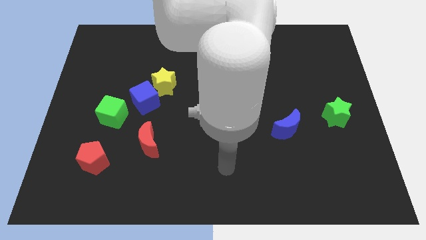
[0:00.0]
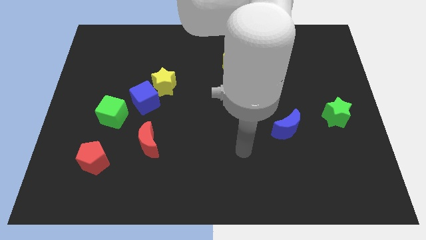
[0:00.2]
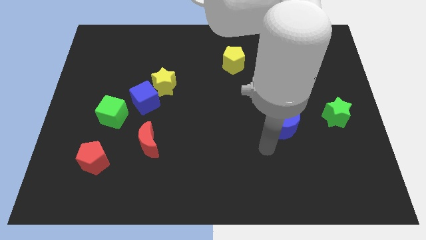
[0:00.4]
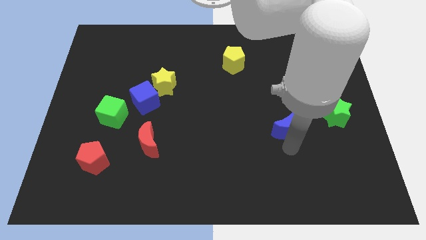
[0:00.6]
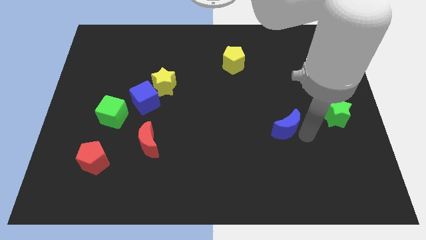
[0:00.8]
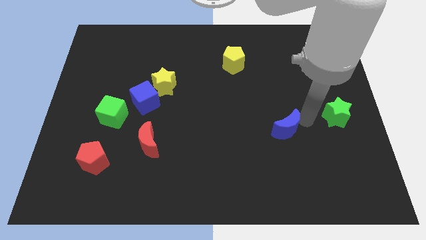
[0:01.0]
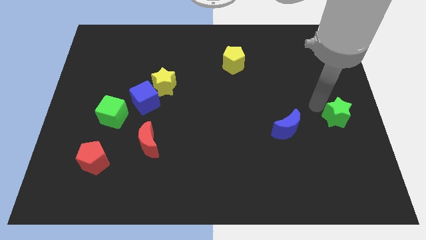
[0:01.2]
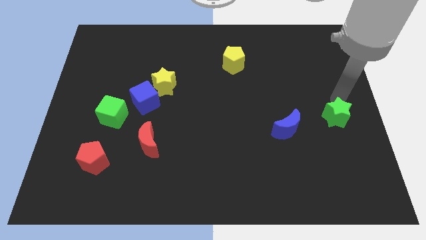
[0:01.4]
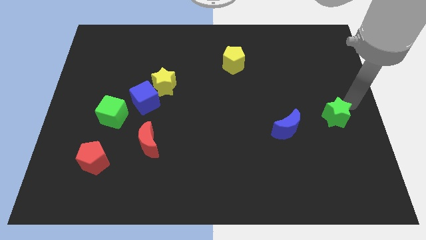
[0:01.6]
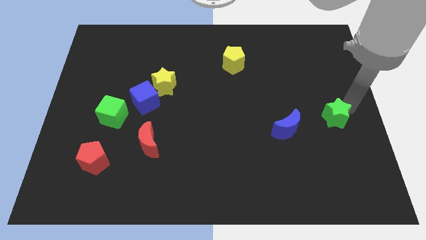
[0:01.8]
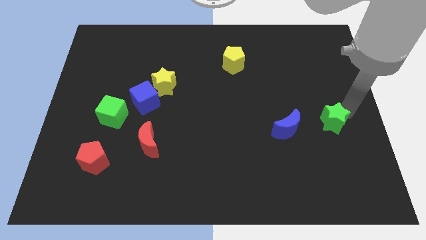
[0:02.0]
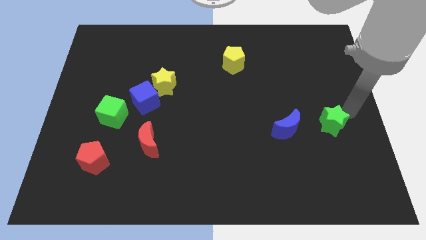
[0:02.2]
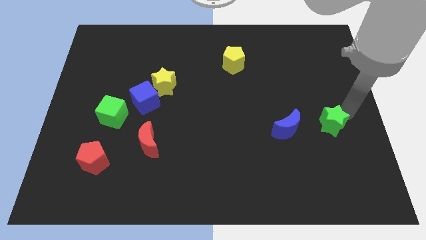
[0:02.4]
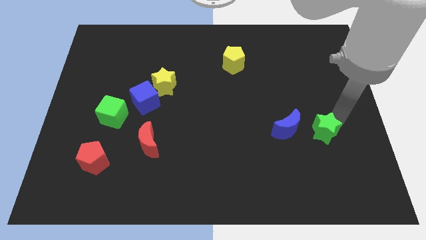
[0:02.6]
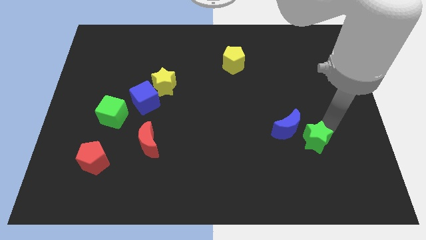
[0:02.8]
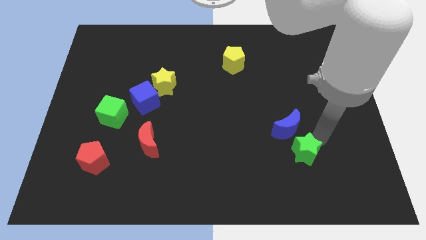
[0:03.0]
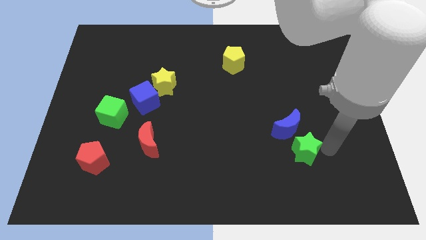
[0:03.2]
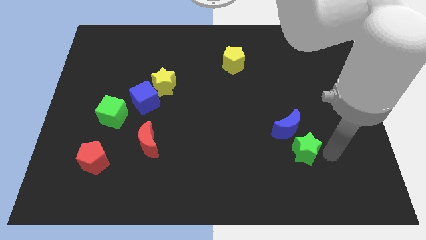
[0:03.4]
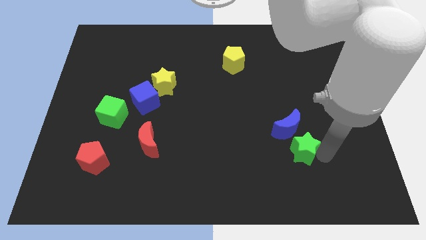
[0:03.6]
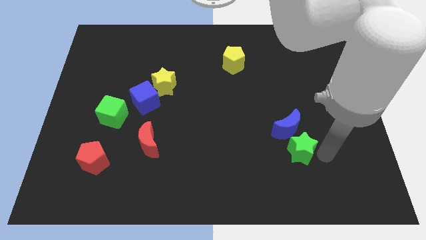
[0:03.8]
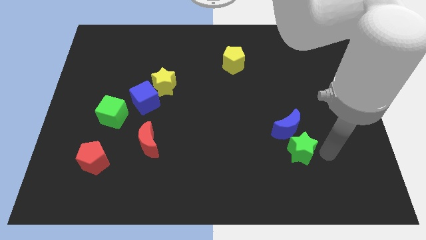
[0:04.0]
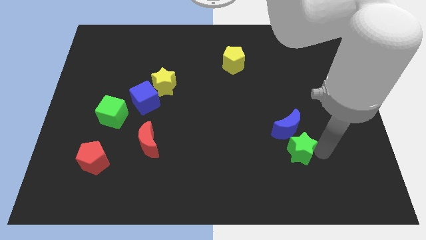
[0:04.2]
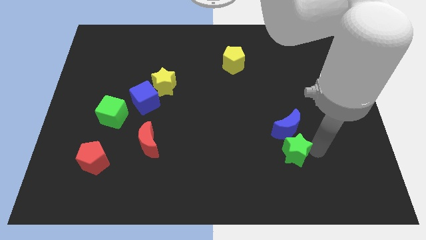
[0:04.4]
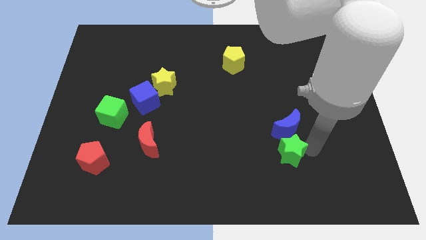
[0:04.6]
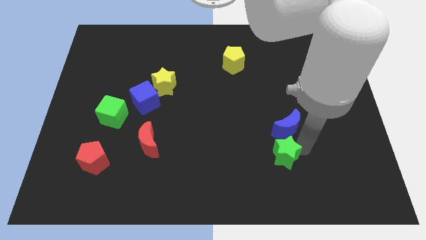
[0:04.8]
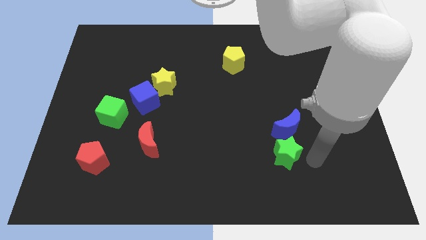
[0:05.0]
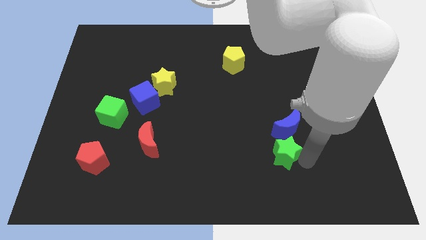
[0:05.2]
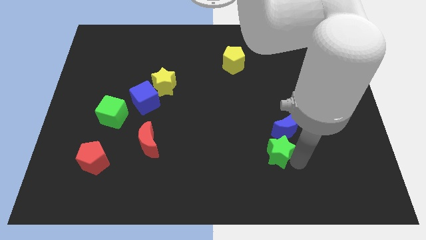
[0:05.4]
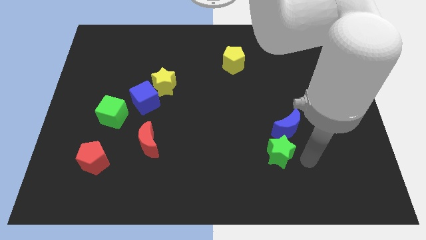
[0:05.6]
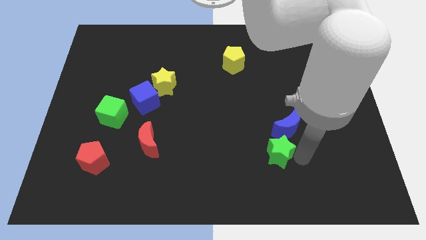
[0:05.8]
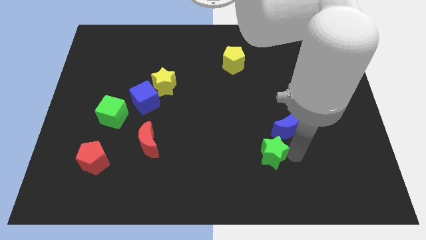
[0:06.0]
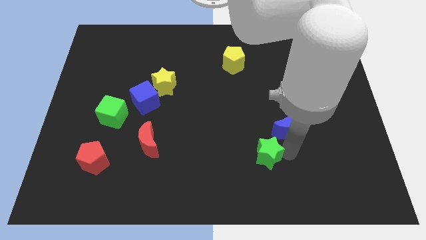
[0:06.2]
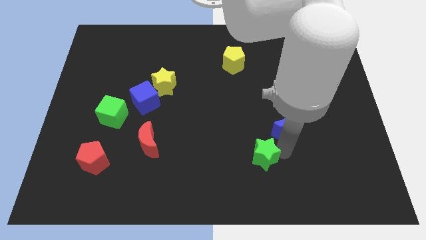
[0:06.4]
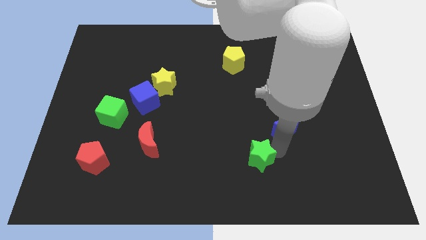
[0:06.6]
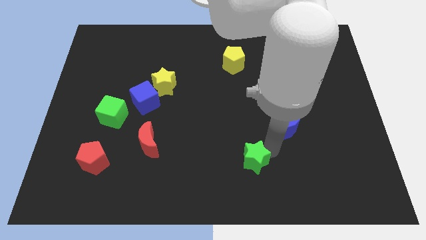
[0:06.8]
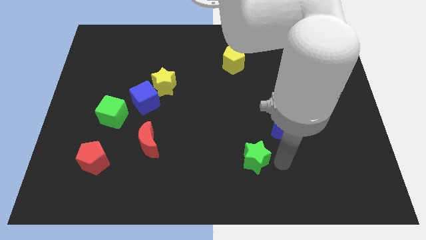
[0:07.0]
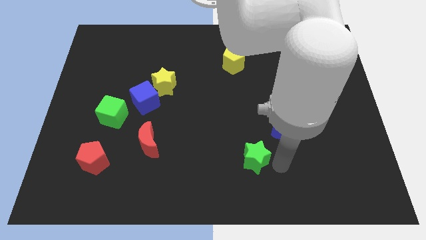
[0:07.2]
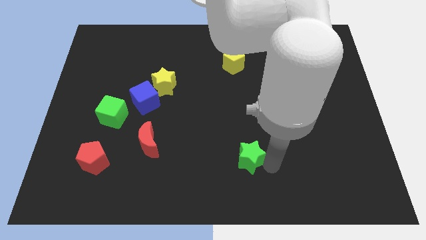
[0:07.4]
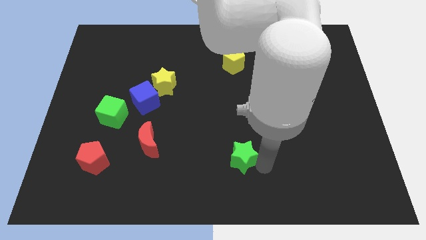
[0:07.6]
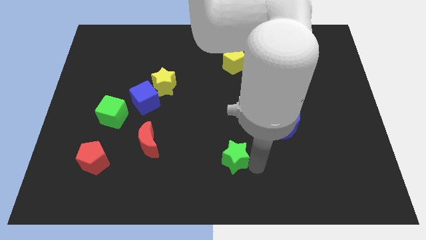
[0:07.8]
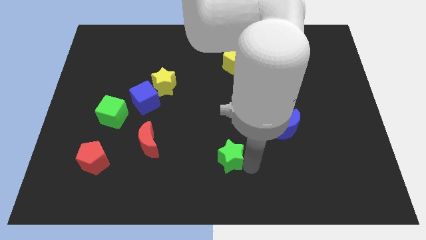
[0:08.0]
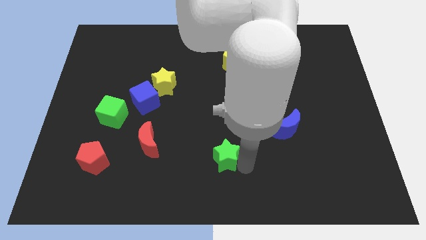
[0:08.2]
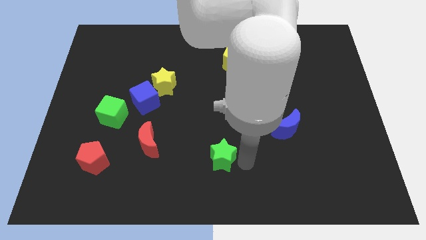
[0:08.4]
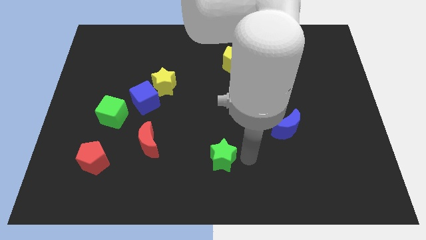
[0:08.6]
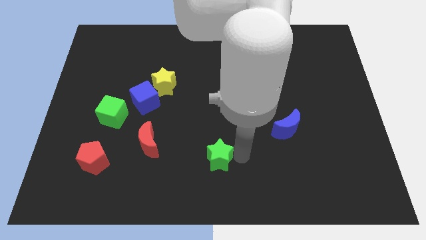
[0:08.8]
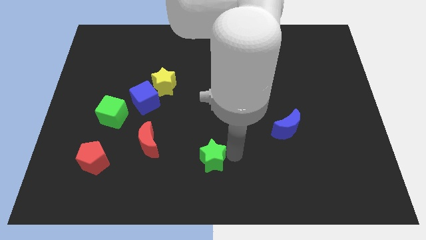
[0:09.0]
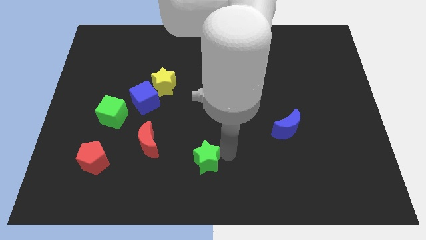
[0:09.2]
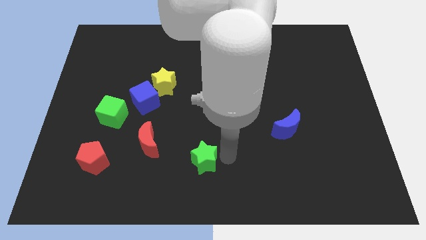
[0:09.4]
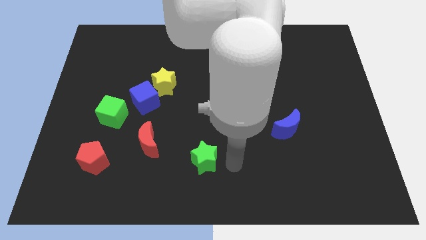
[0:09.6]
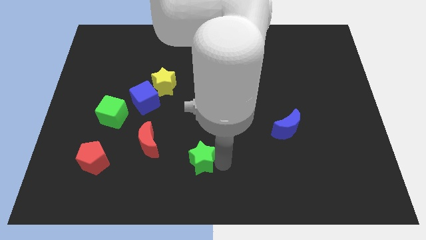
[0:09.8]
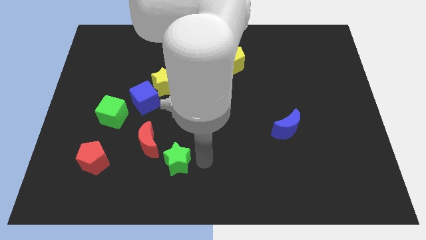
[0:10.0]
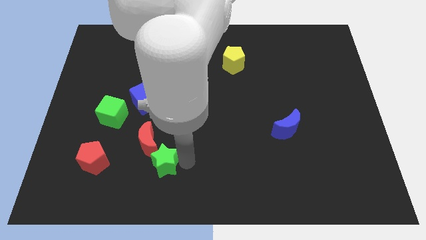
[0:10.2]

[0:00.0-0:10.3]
move the green star right of the red pentagon

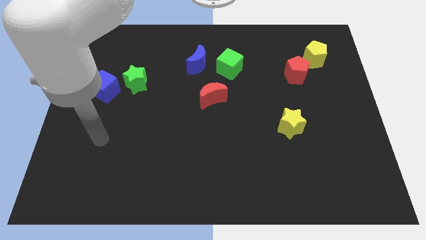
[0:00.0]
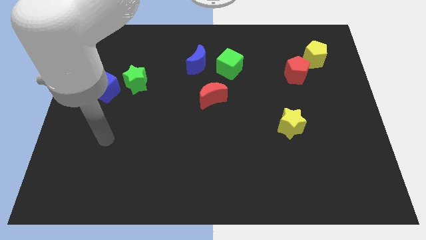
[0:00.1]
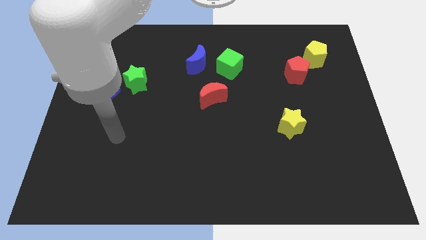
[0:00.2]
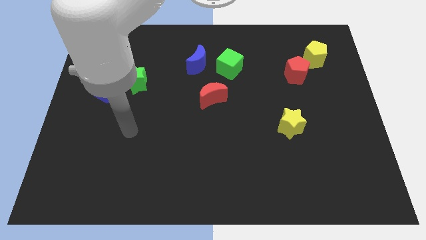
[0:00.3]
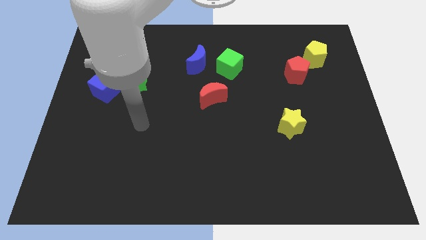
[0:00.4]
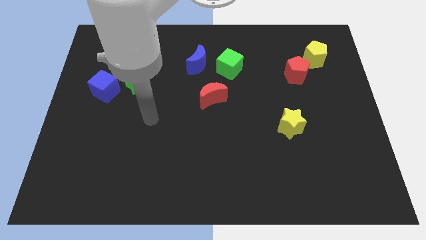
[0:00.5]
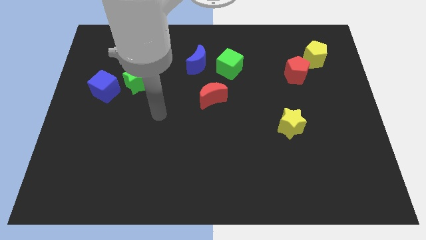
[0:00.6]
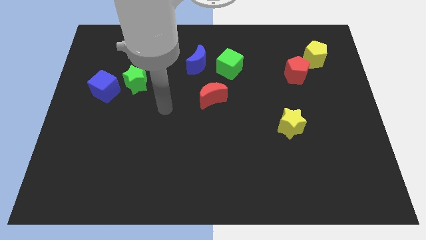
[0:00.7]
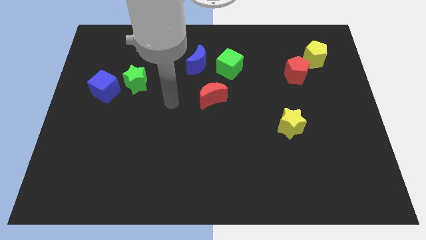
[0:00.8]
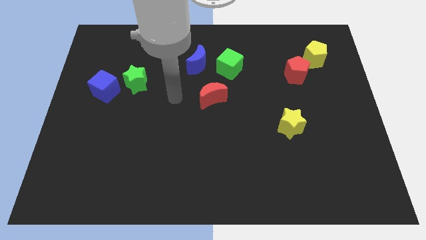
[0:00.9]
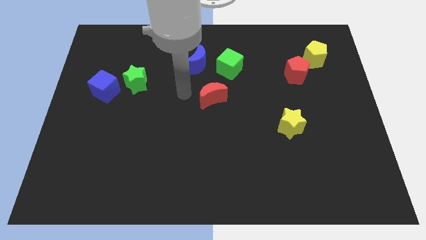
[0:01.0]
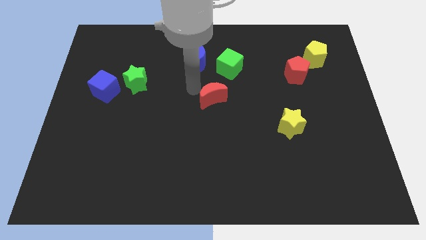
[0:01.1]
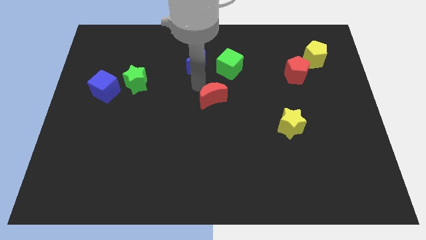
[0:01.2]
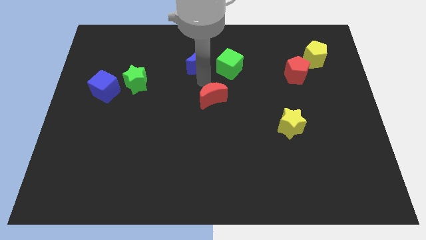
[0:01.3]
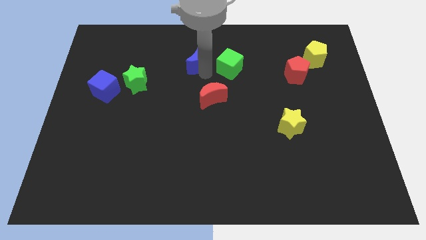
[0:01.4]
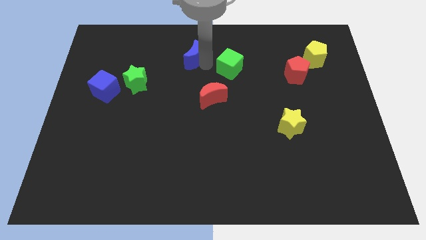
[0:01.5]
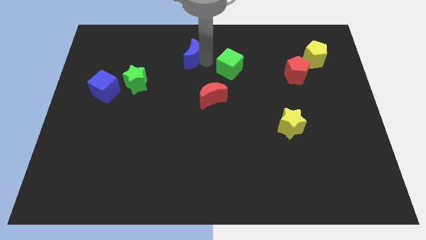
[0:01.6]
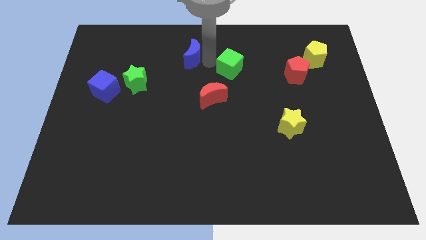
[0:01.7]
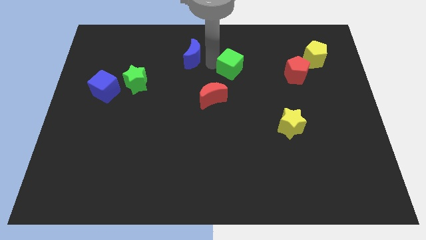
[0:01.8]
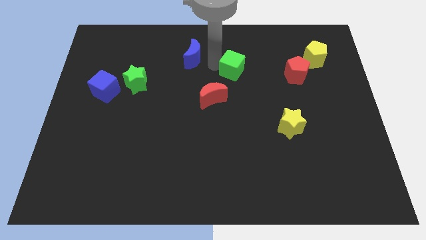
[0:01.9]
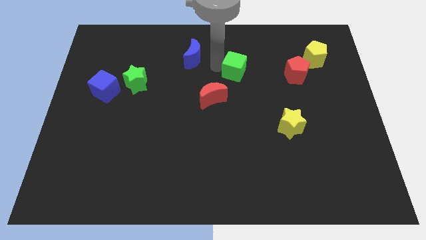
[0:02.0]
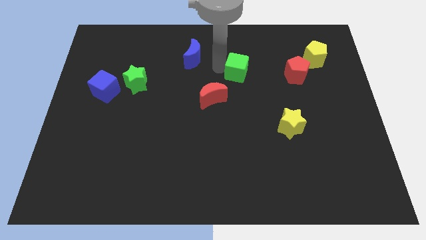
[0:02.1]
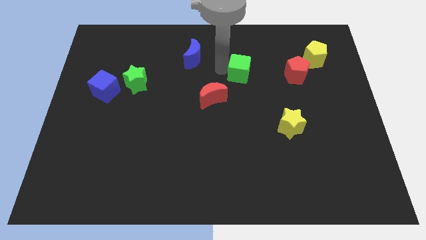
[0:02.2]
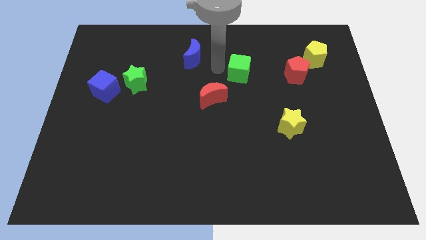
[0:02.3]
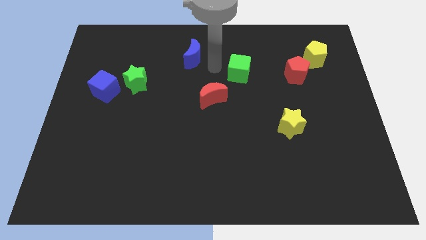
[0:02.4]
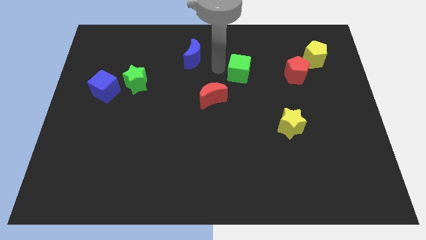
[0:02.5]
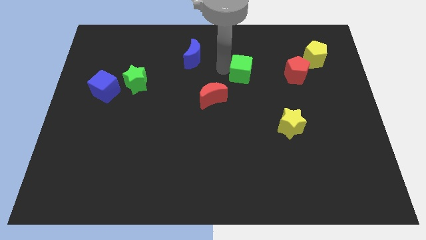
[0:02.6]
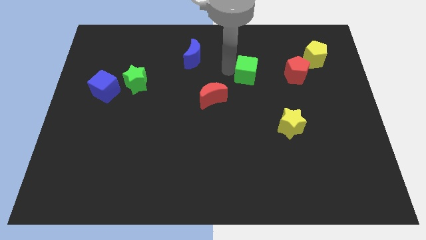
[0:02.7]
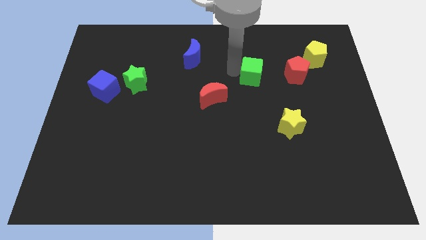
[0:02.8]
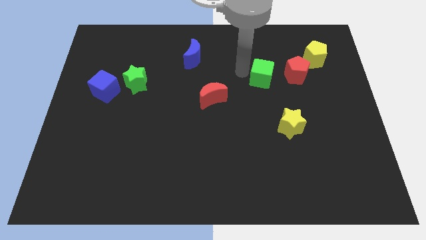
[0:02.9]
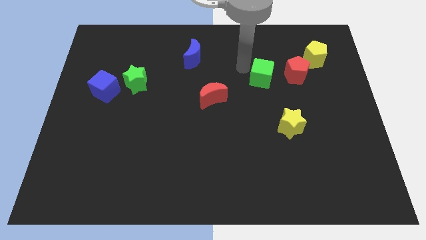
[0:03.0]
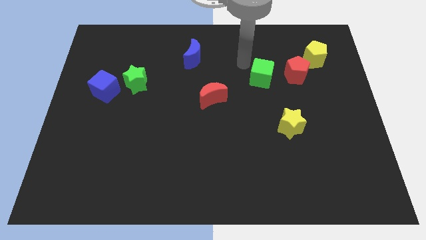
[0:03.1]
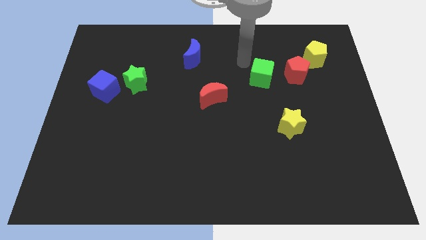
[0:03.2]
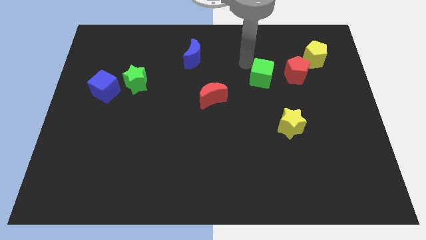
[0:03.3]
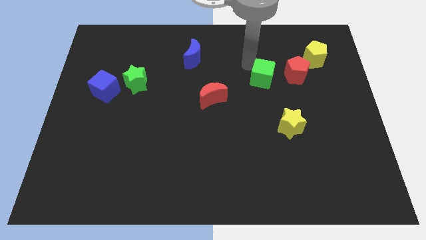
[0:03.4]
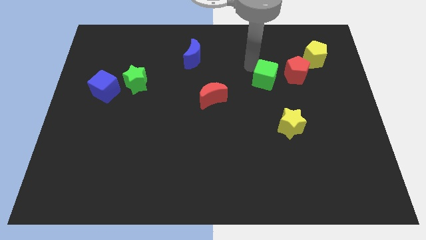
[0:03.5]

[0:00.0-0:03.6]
move the green cube to the bottom left side of the red pentagon
